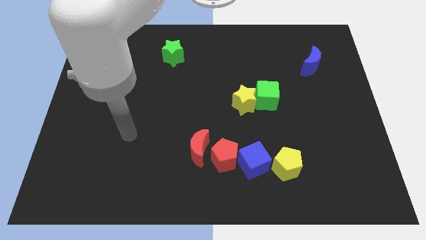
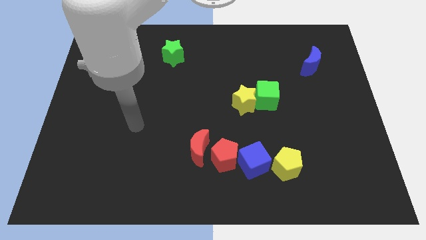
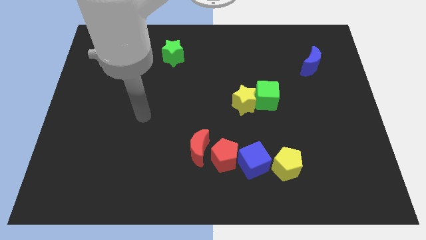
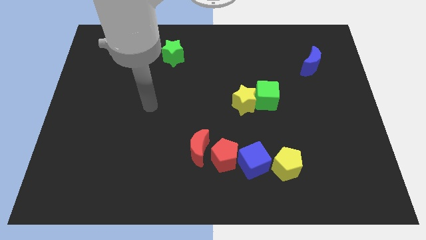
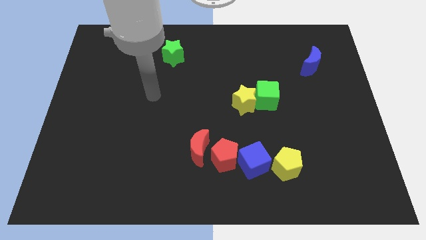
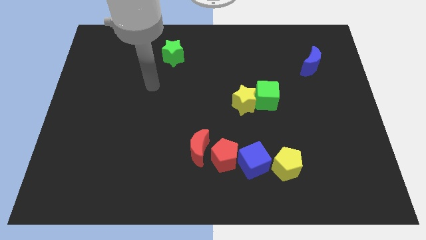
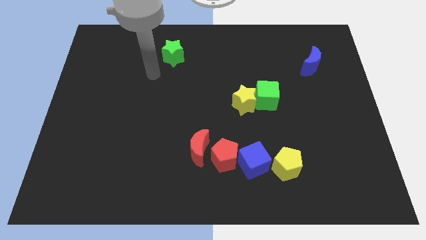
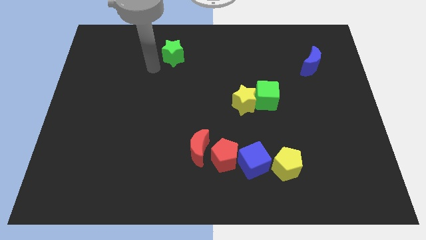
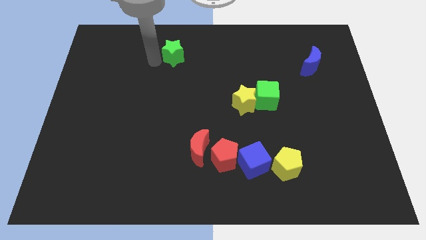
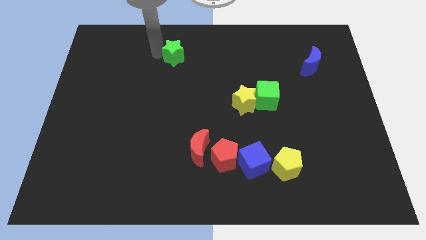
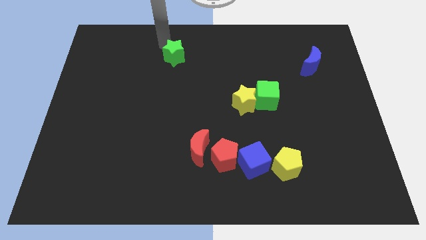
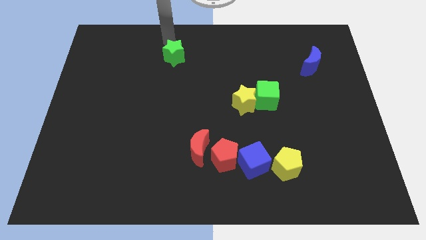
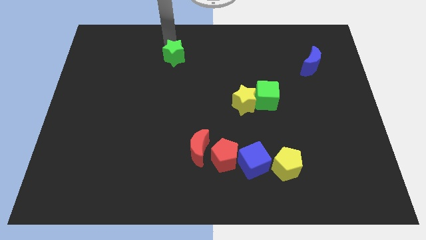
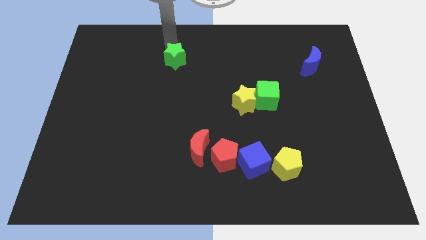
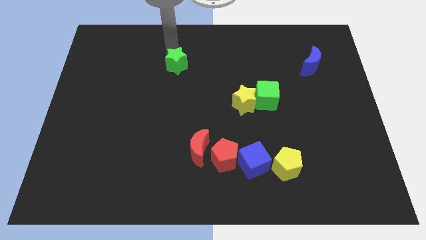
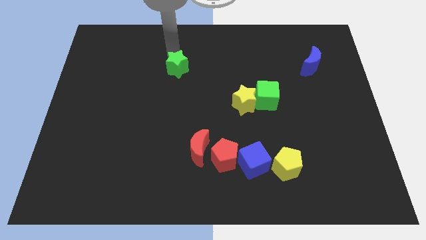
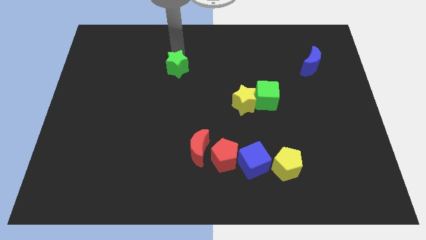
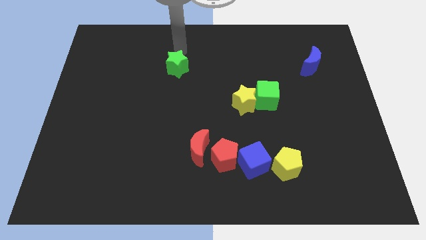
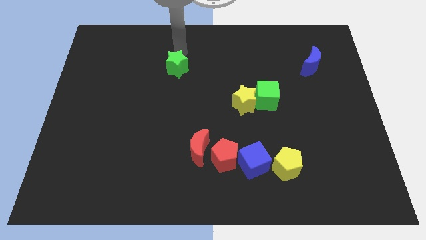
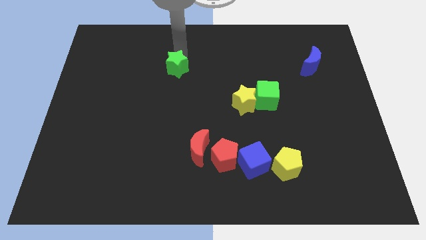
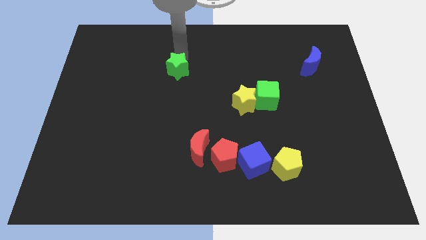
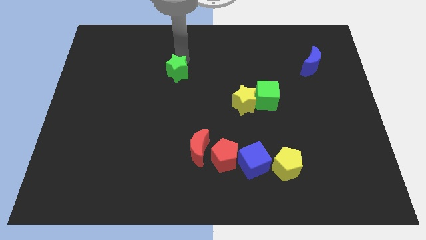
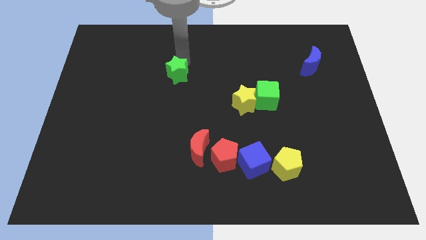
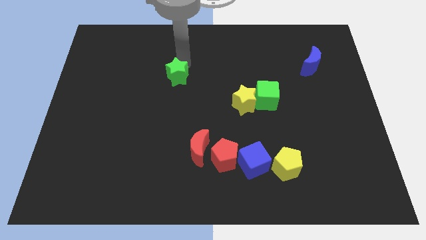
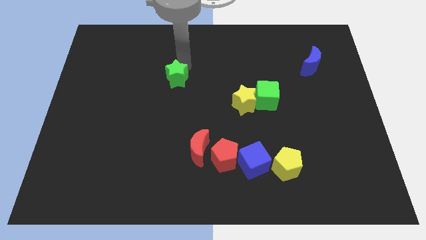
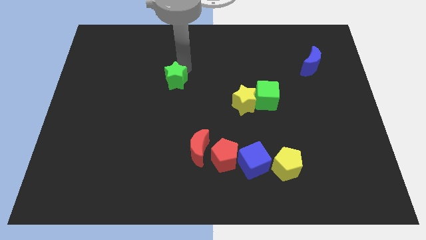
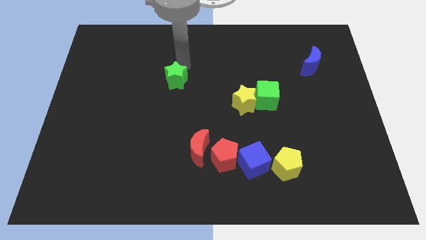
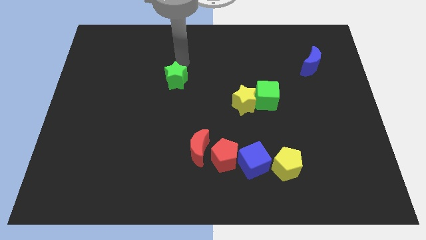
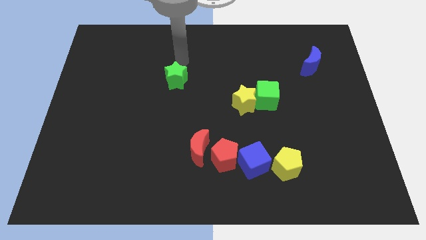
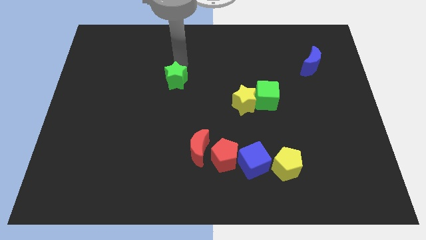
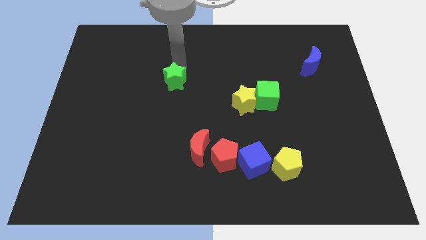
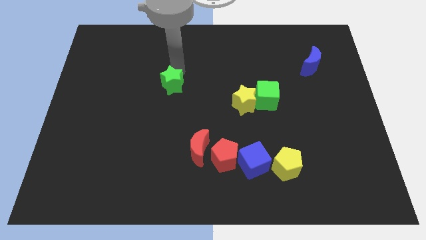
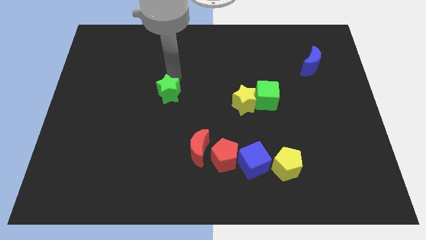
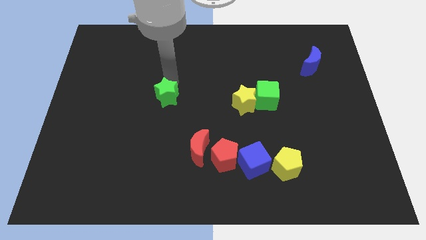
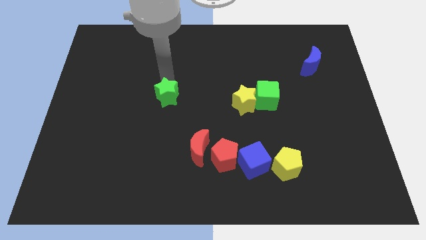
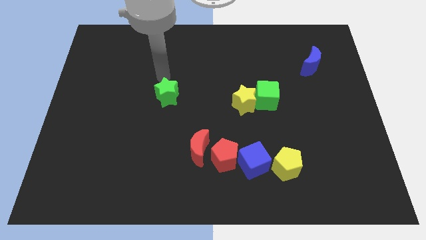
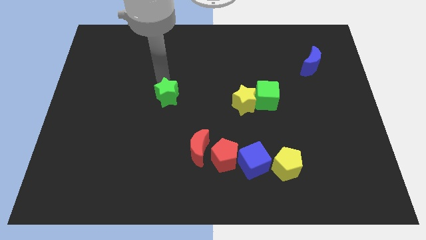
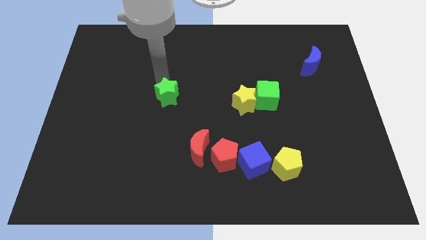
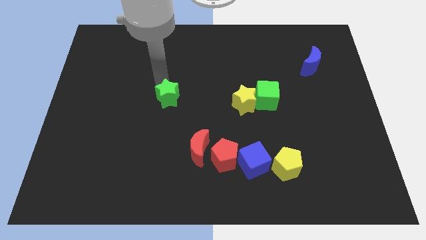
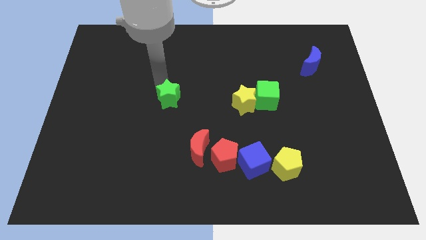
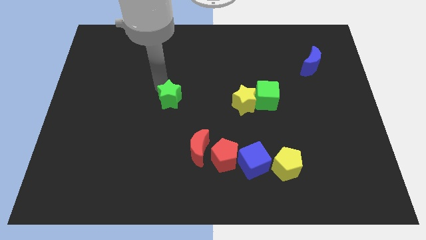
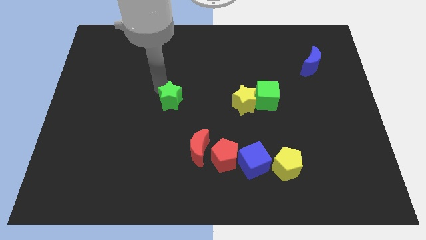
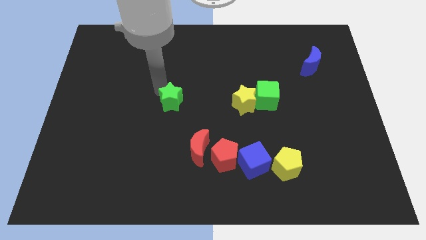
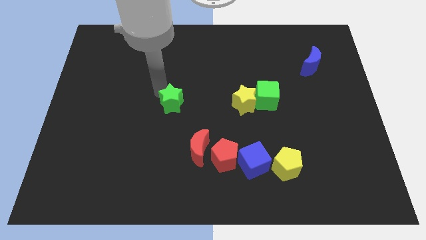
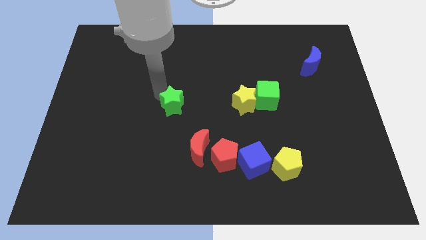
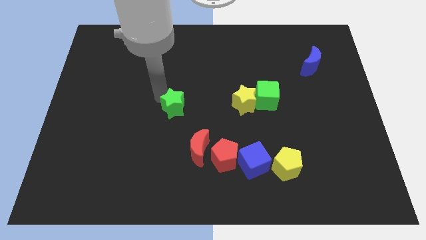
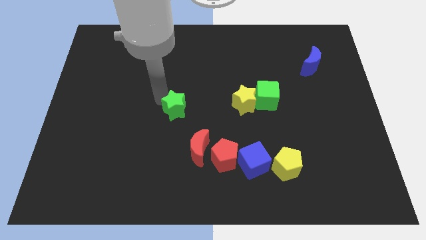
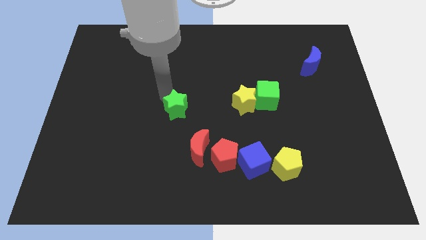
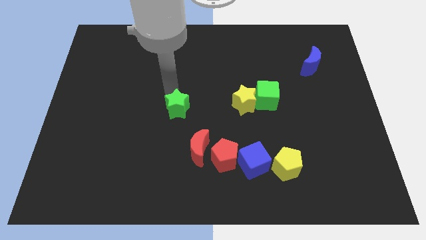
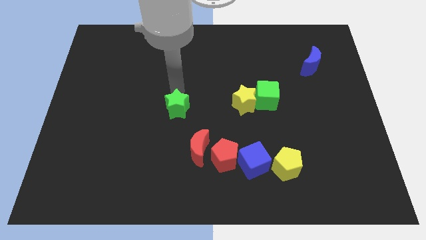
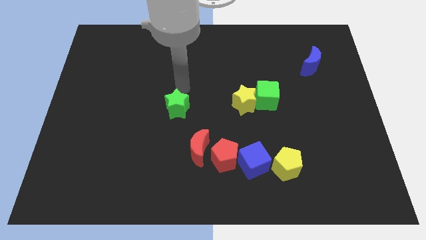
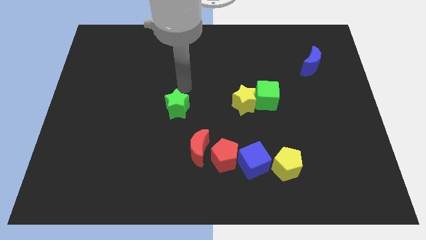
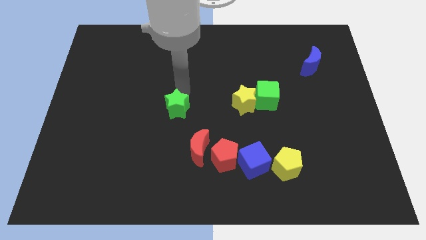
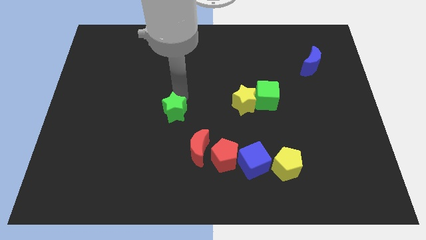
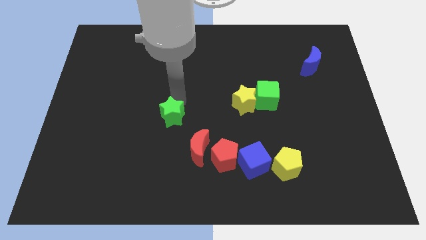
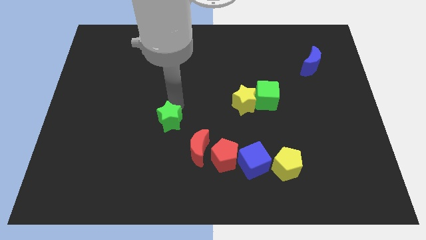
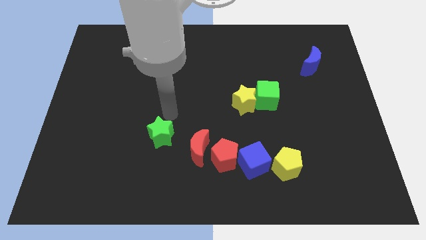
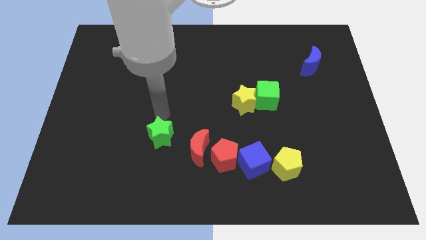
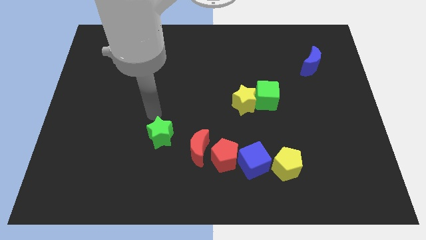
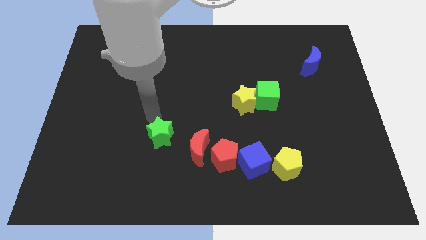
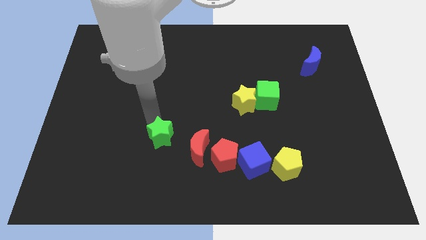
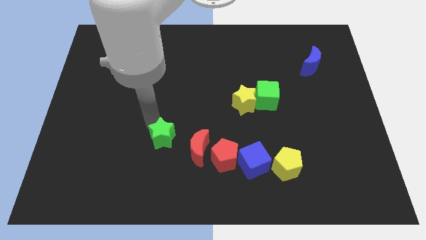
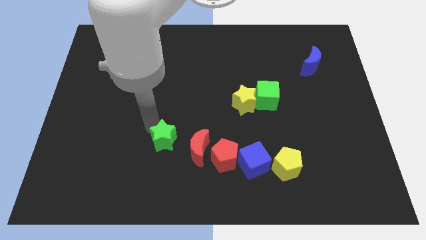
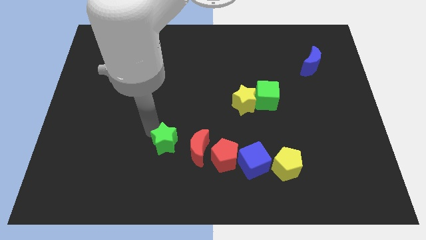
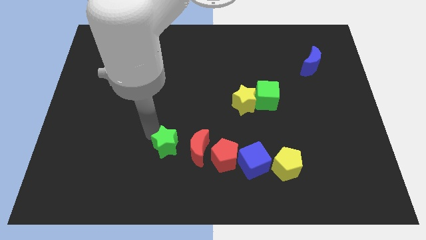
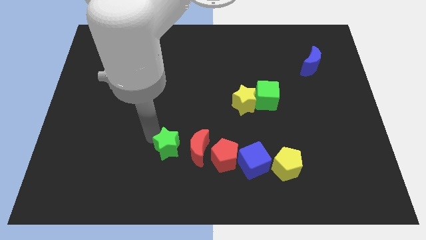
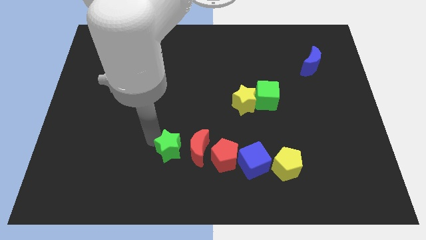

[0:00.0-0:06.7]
slide the green star to the bottom left of the red moon

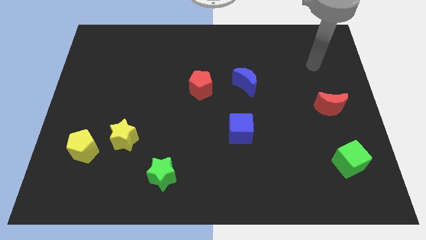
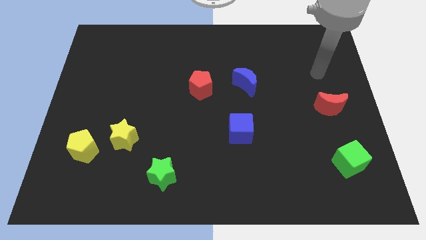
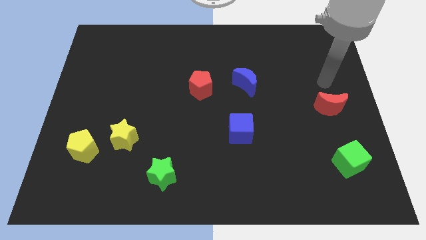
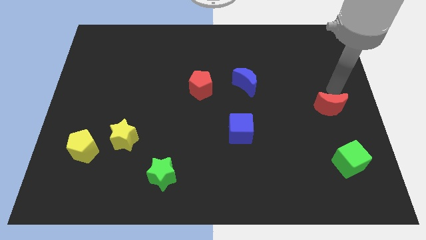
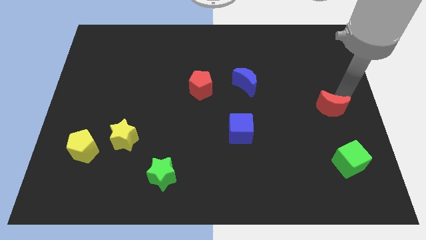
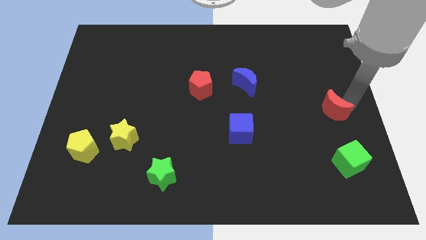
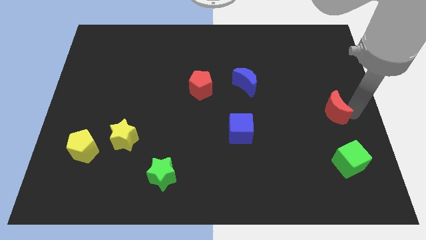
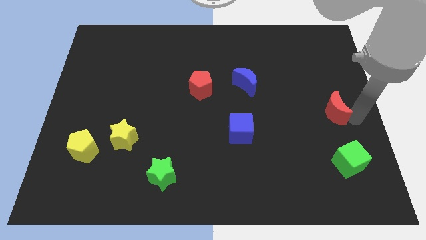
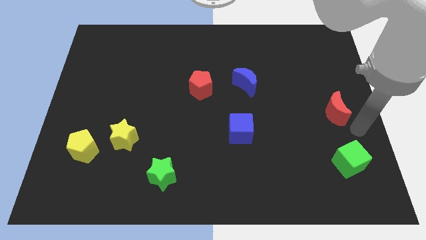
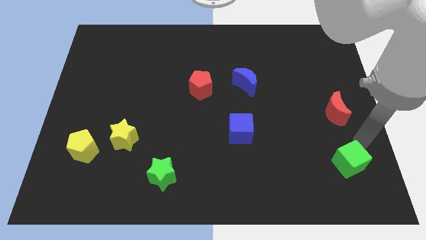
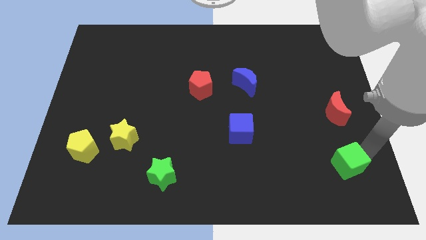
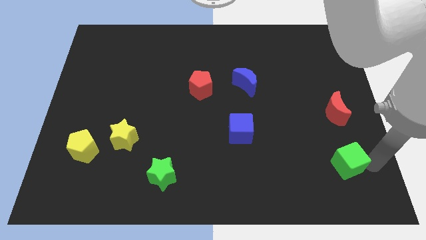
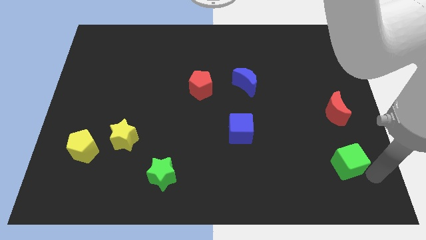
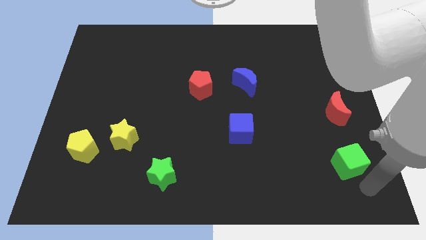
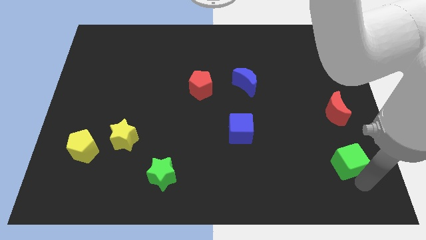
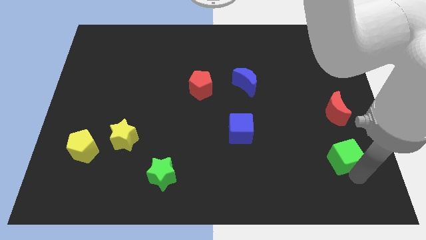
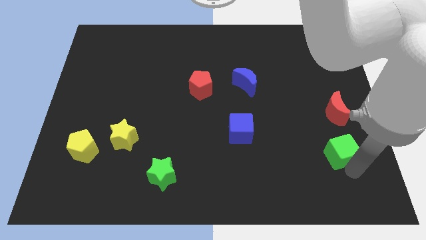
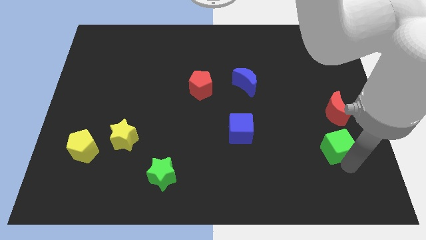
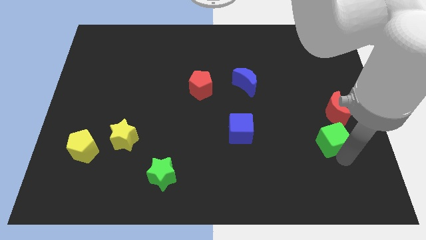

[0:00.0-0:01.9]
put the green cube to the bottom left of the red moon
